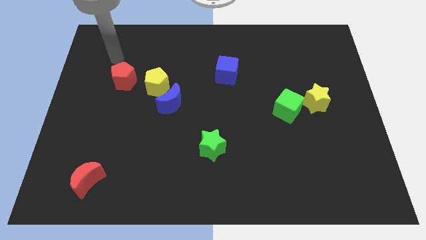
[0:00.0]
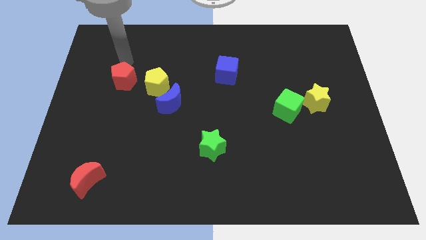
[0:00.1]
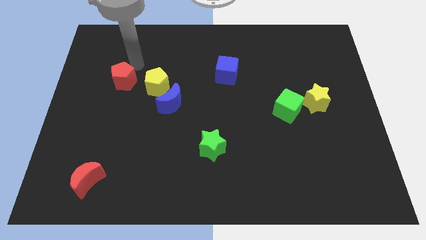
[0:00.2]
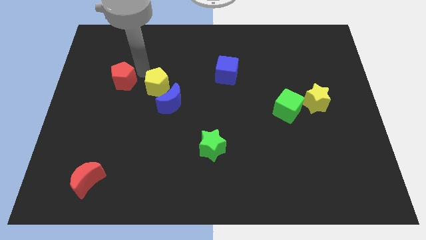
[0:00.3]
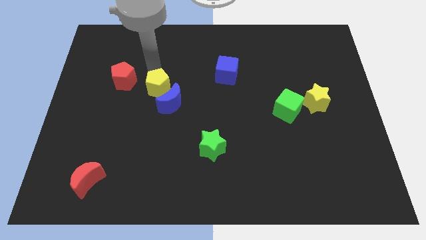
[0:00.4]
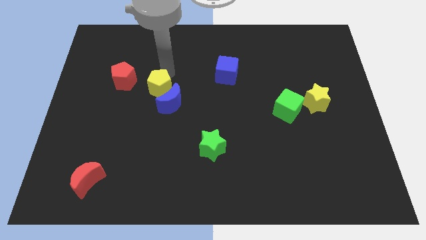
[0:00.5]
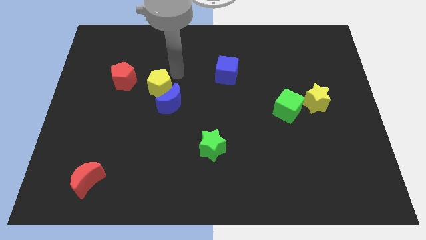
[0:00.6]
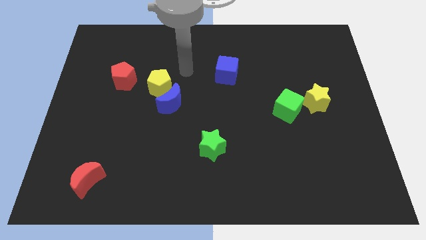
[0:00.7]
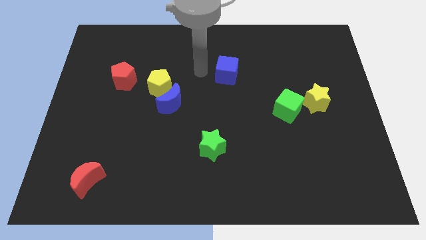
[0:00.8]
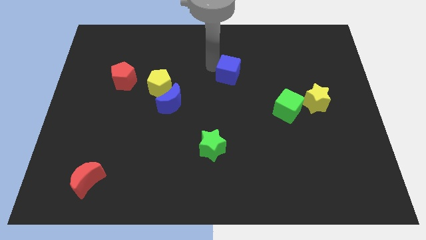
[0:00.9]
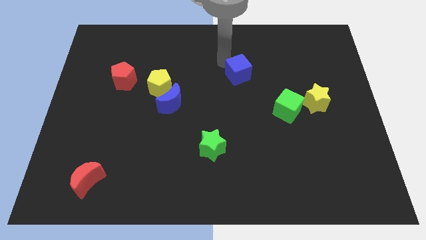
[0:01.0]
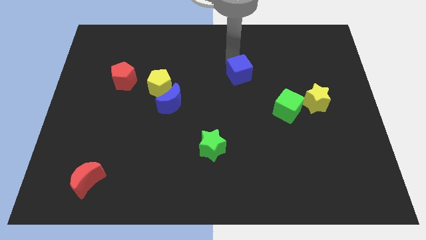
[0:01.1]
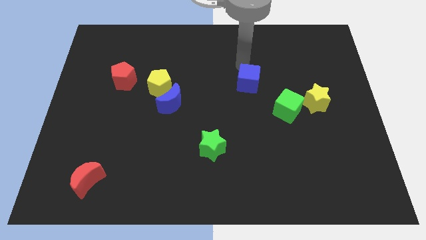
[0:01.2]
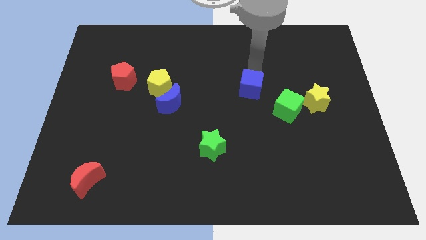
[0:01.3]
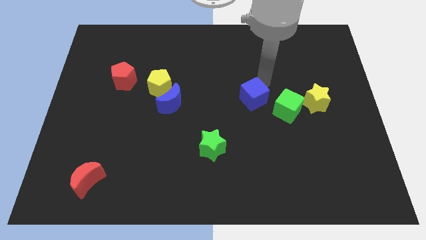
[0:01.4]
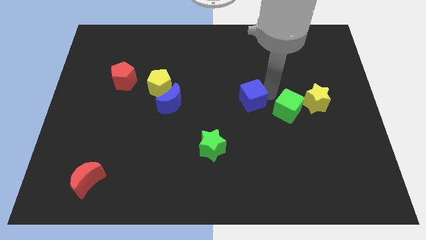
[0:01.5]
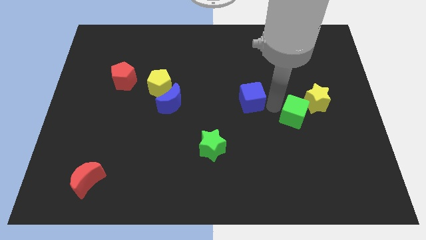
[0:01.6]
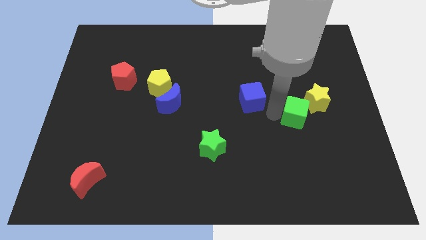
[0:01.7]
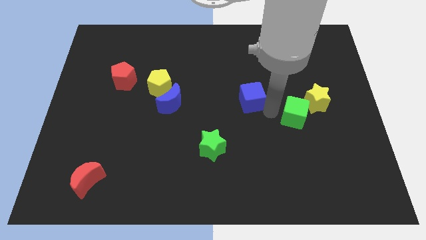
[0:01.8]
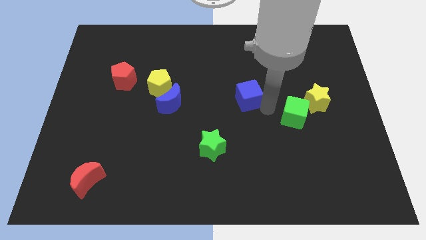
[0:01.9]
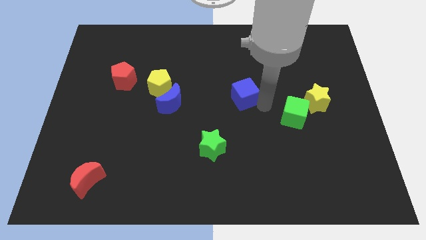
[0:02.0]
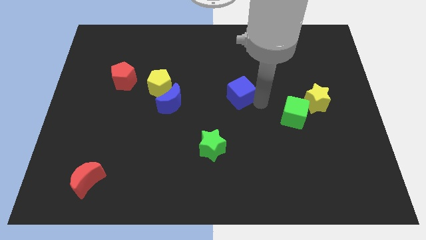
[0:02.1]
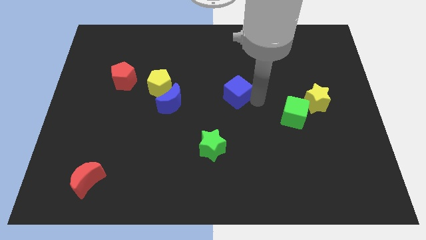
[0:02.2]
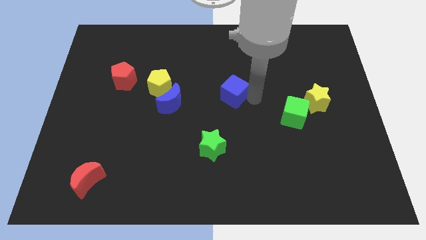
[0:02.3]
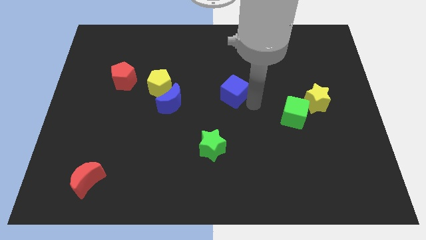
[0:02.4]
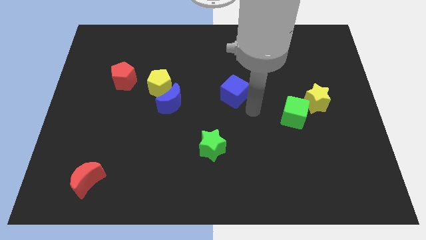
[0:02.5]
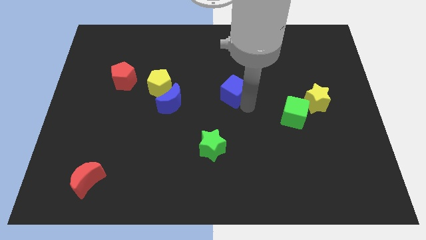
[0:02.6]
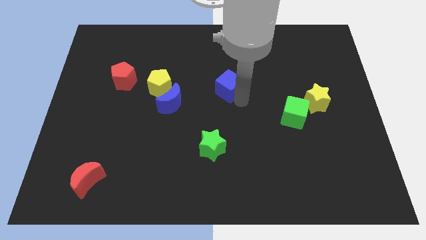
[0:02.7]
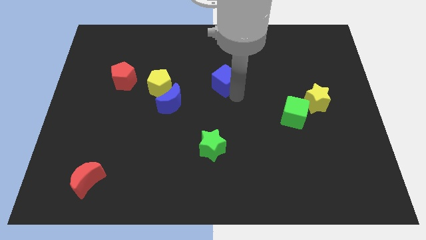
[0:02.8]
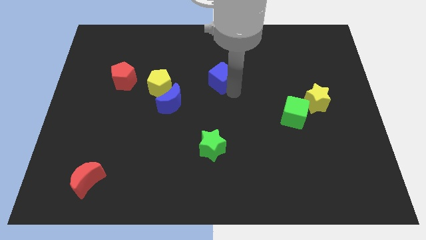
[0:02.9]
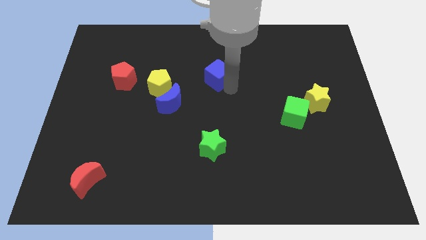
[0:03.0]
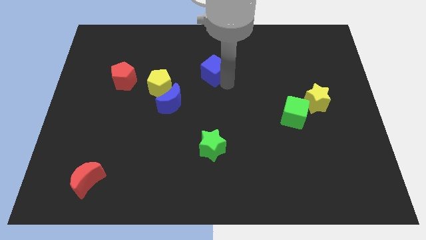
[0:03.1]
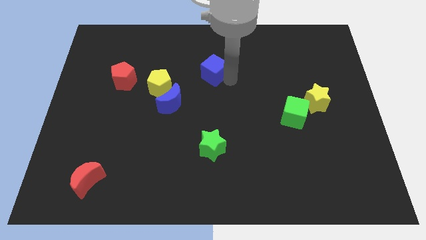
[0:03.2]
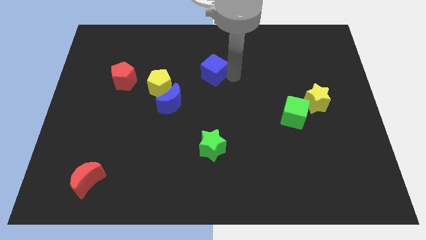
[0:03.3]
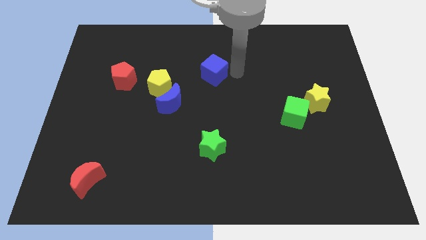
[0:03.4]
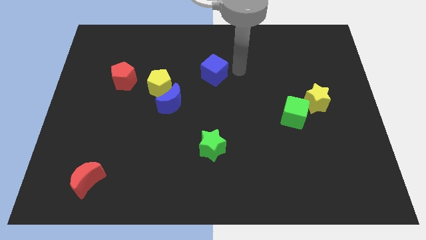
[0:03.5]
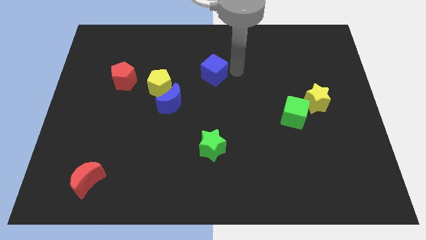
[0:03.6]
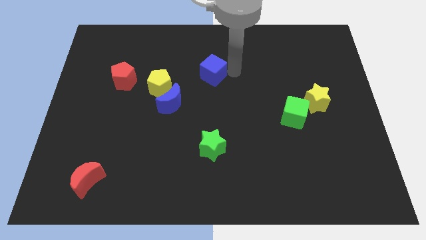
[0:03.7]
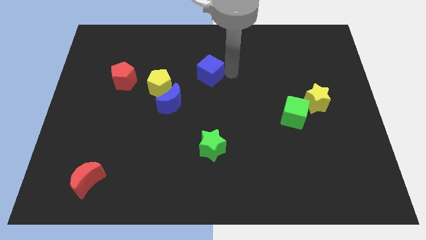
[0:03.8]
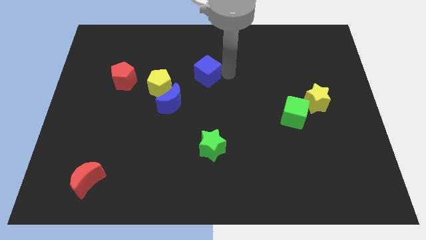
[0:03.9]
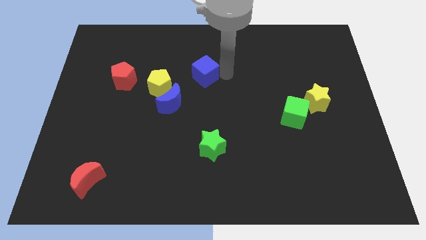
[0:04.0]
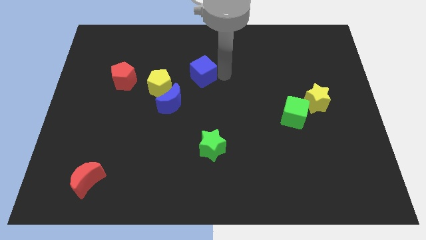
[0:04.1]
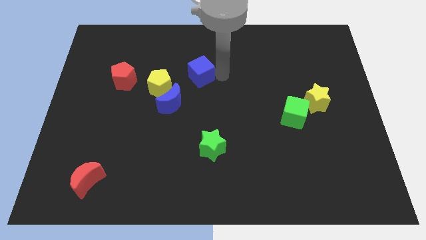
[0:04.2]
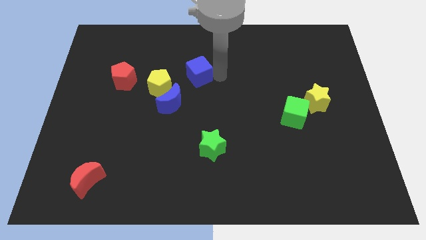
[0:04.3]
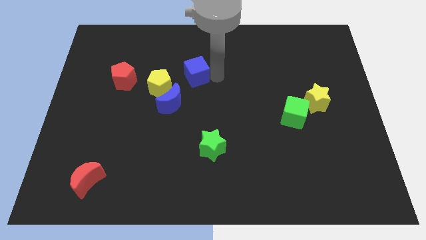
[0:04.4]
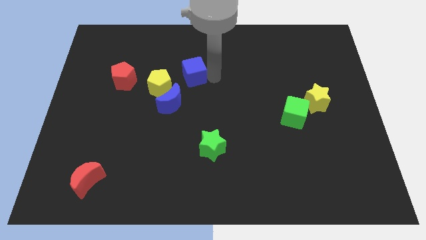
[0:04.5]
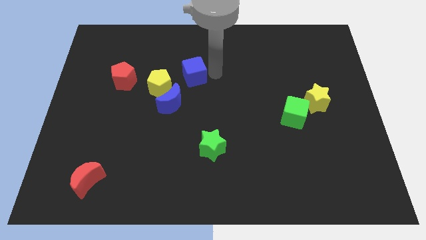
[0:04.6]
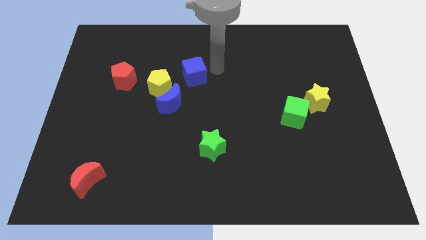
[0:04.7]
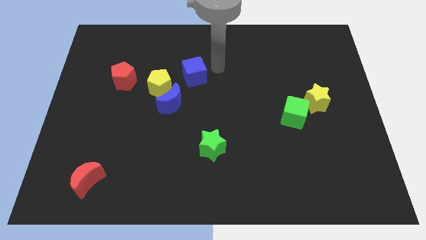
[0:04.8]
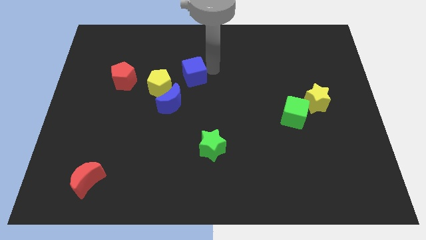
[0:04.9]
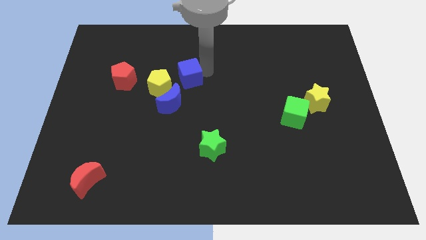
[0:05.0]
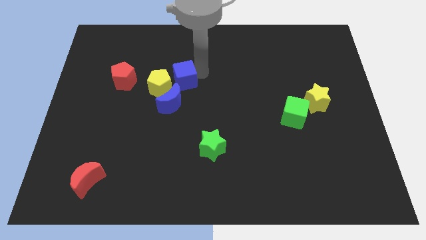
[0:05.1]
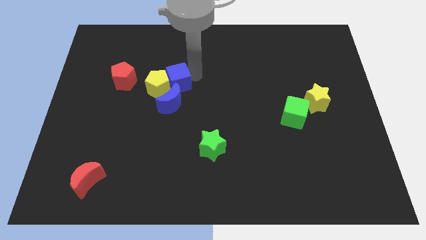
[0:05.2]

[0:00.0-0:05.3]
move the blue cube to the yellow pentagon

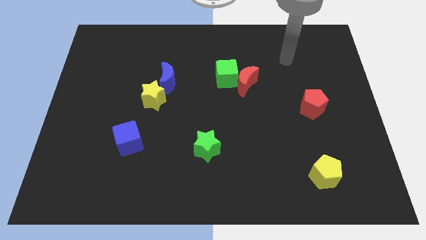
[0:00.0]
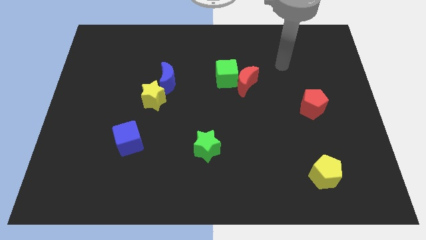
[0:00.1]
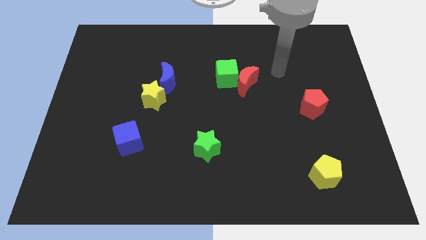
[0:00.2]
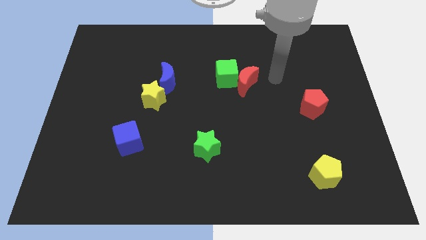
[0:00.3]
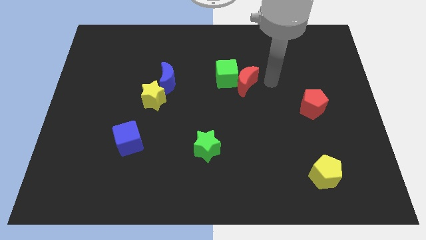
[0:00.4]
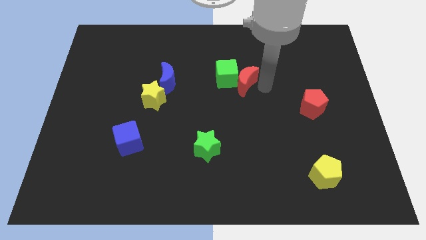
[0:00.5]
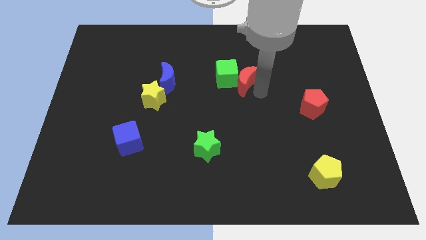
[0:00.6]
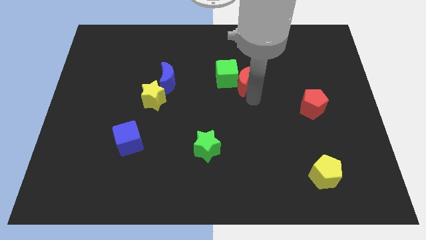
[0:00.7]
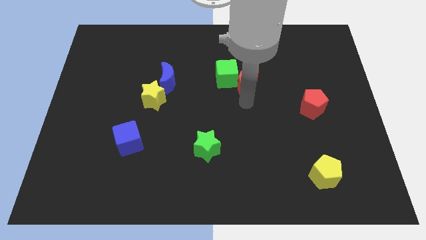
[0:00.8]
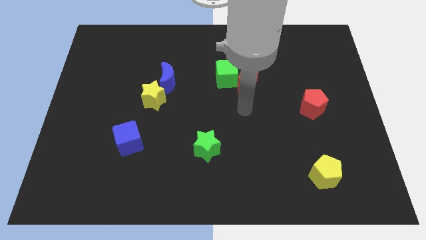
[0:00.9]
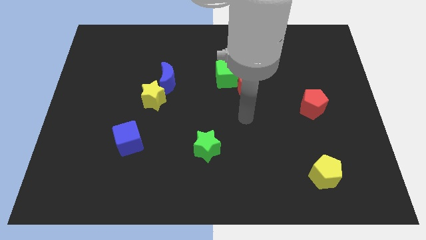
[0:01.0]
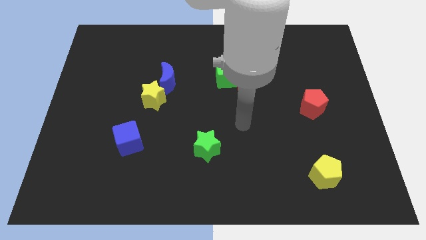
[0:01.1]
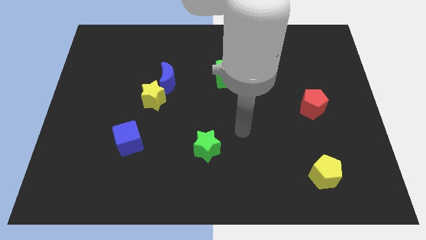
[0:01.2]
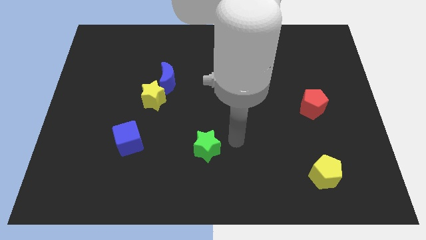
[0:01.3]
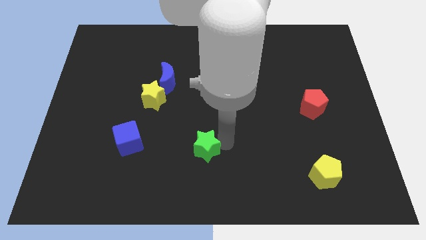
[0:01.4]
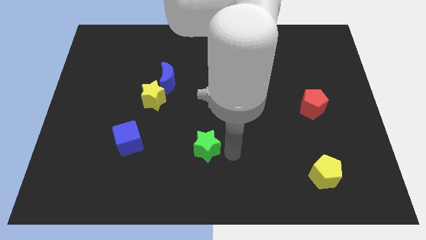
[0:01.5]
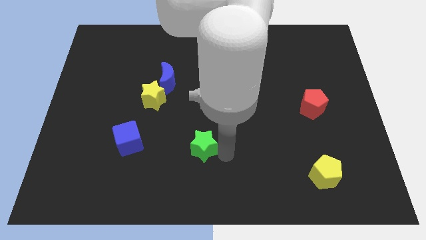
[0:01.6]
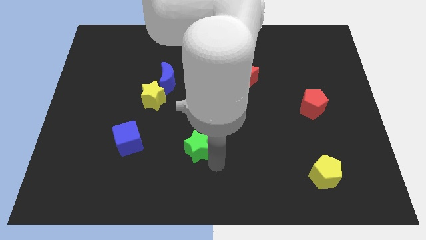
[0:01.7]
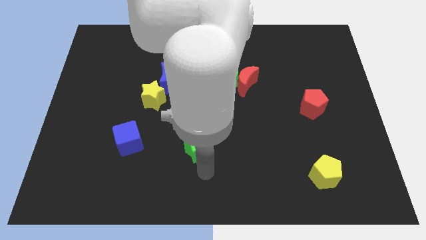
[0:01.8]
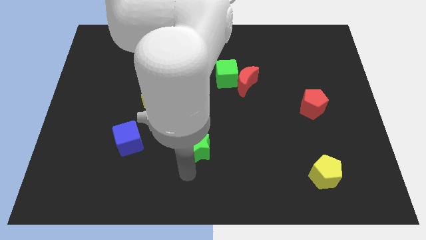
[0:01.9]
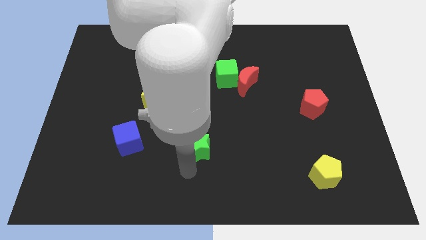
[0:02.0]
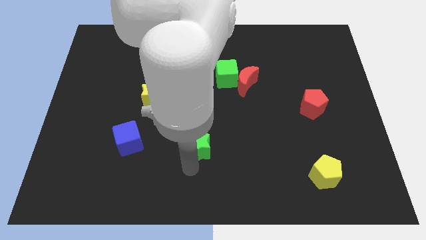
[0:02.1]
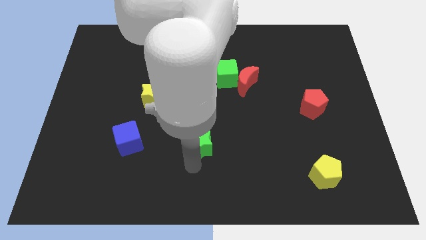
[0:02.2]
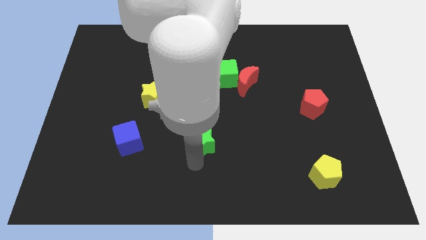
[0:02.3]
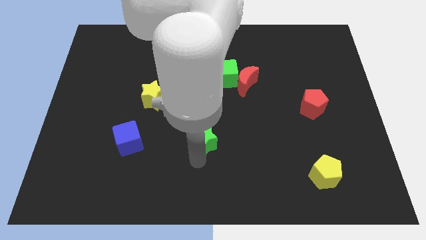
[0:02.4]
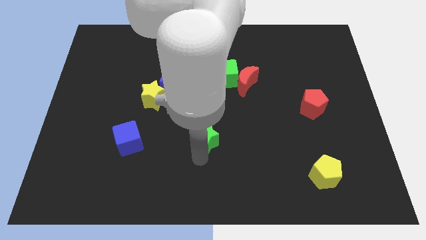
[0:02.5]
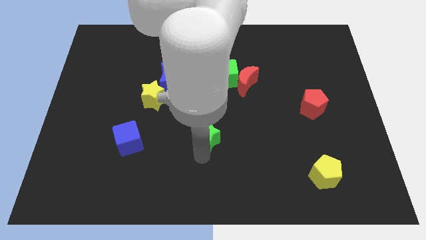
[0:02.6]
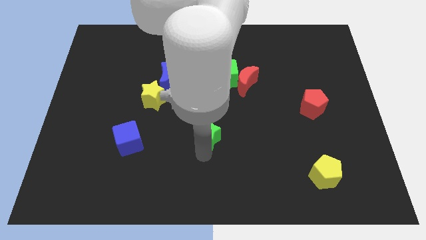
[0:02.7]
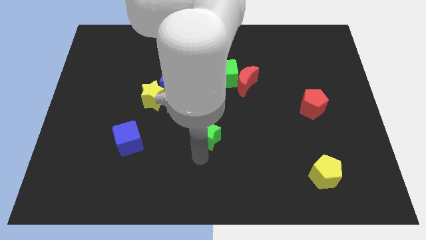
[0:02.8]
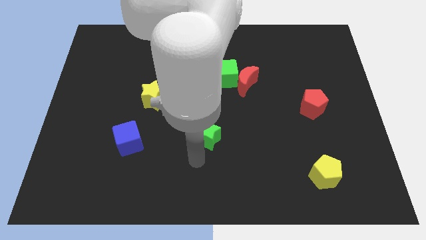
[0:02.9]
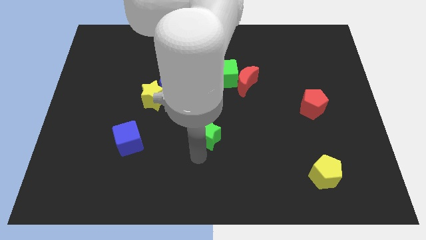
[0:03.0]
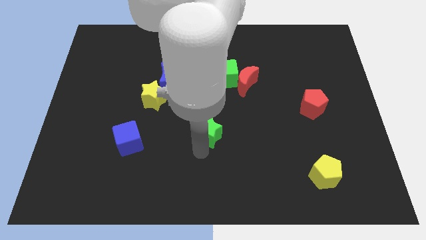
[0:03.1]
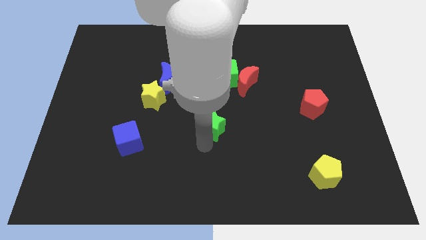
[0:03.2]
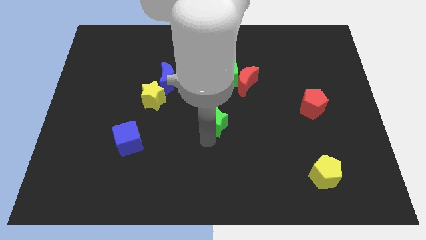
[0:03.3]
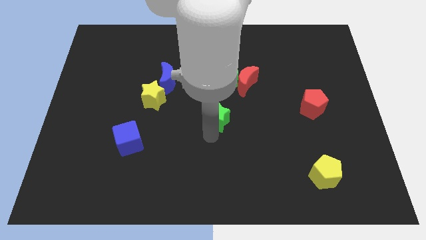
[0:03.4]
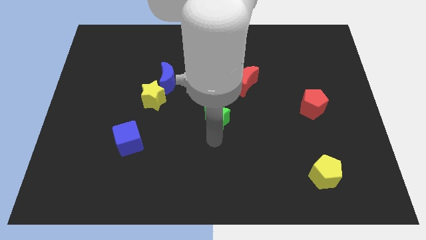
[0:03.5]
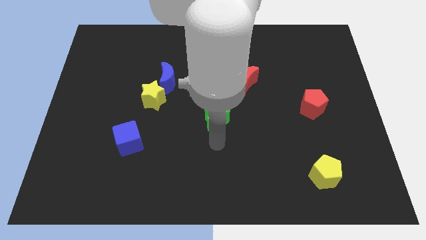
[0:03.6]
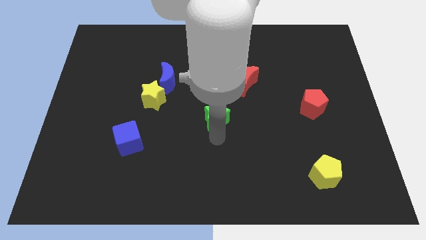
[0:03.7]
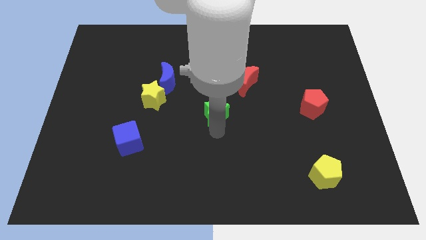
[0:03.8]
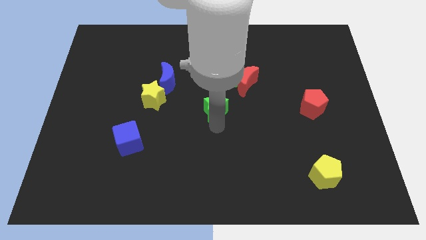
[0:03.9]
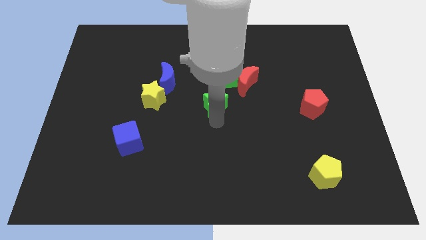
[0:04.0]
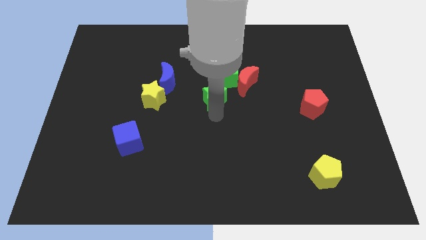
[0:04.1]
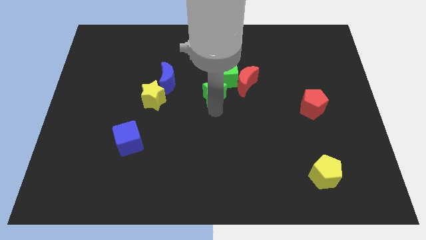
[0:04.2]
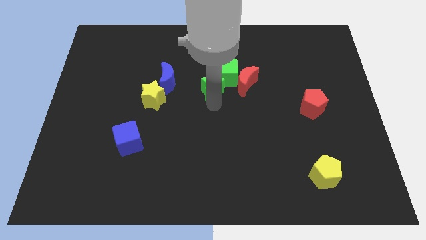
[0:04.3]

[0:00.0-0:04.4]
push the green star next to the green cube
